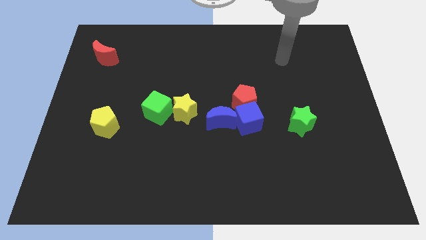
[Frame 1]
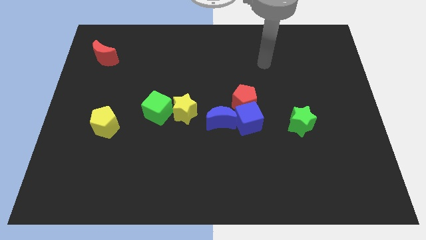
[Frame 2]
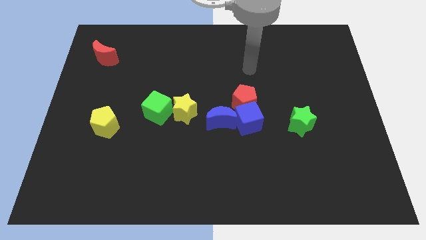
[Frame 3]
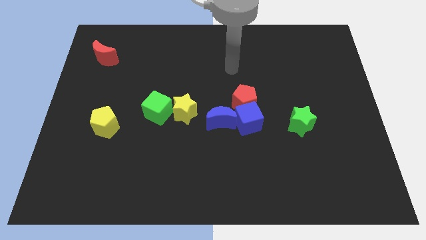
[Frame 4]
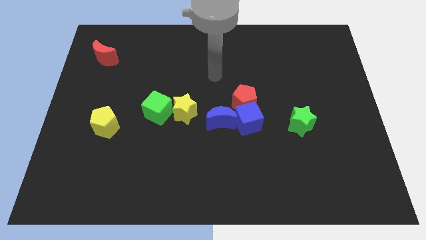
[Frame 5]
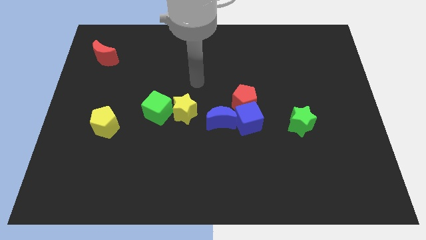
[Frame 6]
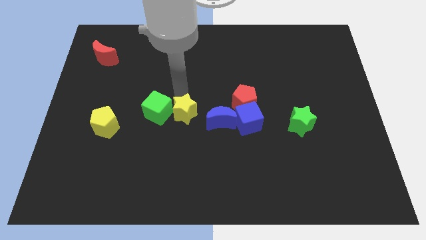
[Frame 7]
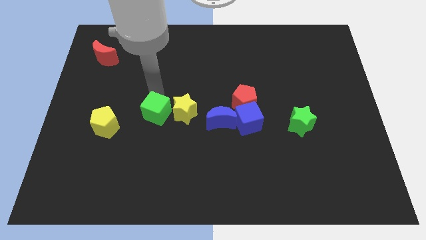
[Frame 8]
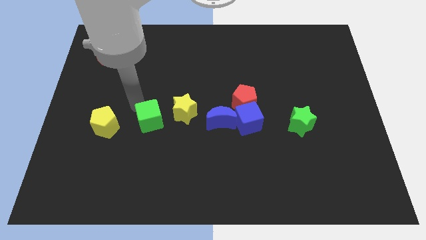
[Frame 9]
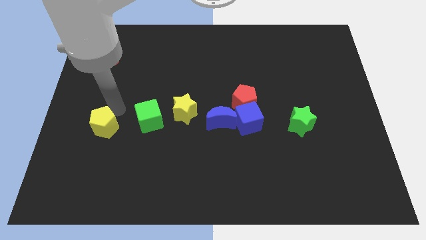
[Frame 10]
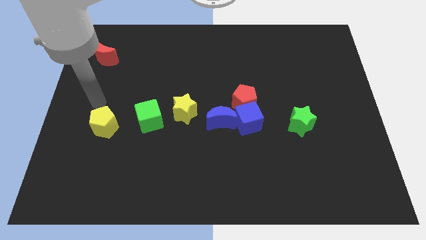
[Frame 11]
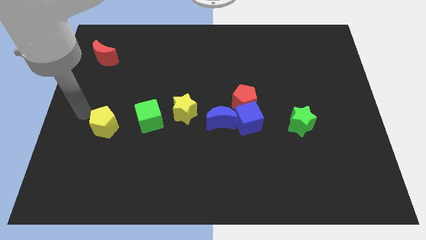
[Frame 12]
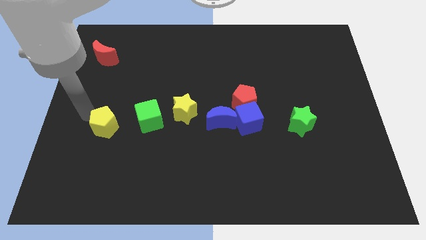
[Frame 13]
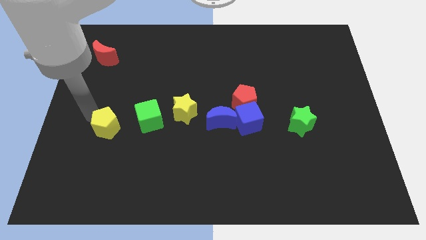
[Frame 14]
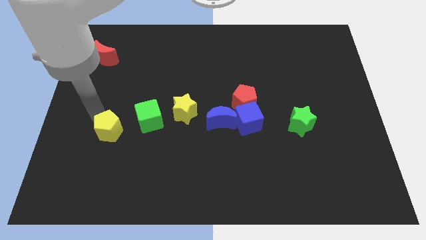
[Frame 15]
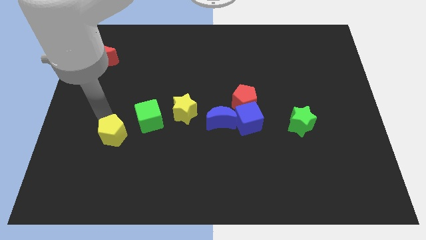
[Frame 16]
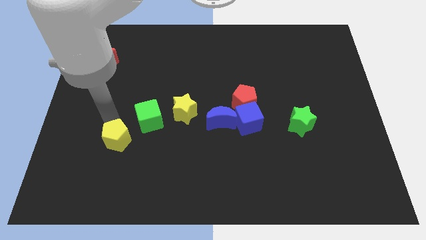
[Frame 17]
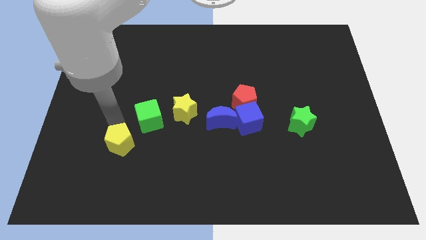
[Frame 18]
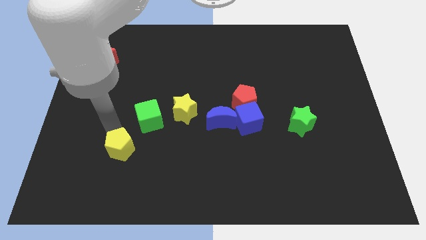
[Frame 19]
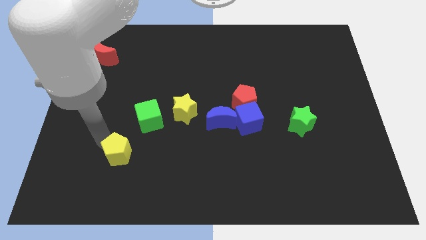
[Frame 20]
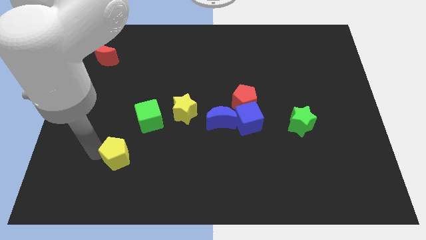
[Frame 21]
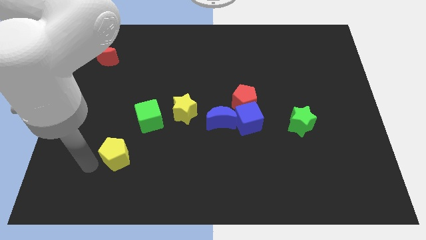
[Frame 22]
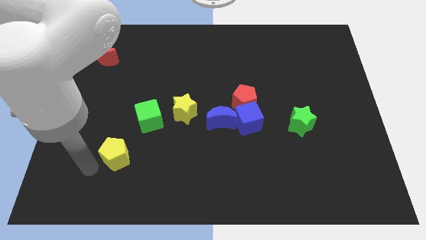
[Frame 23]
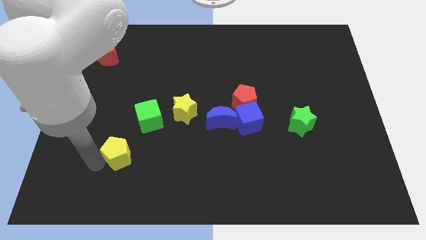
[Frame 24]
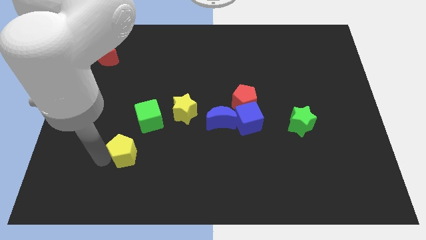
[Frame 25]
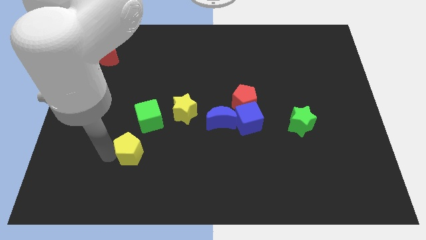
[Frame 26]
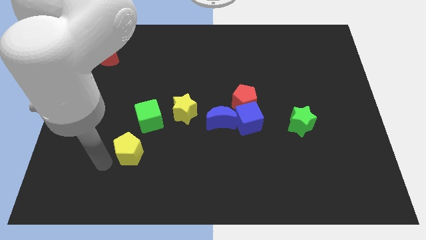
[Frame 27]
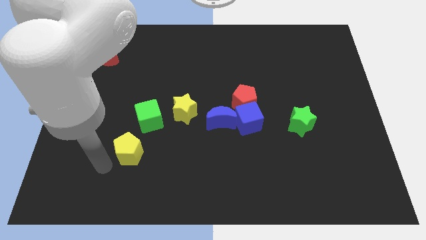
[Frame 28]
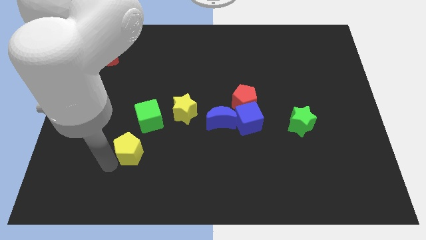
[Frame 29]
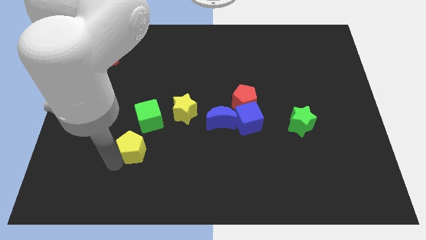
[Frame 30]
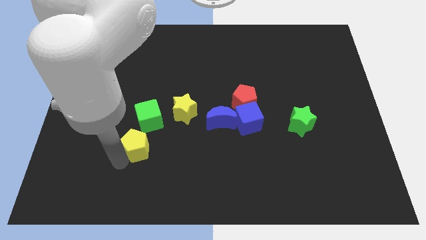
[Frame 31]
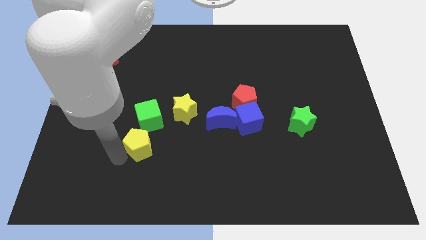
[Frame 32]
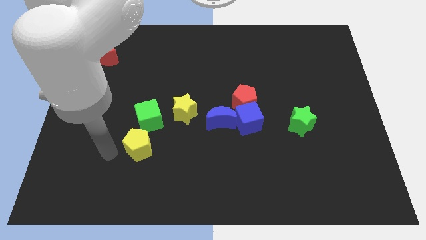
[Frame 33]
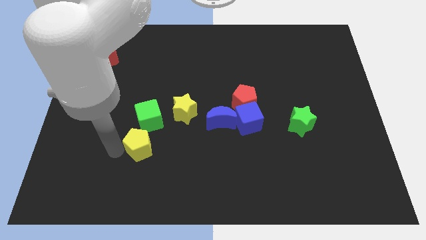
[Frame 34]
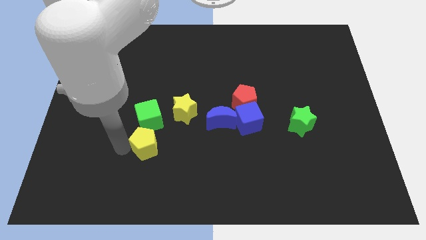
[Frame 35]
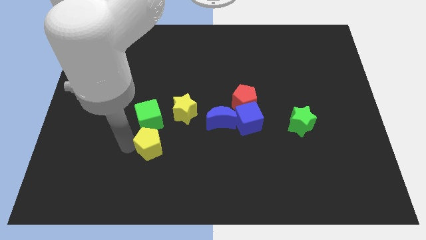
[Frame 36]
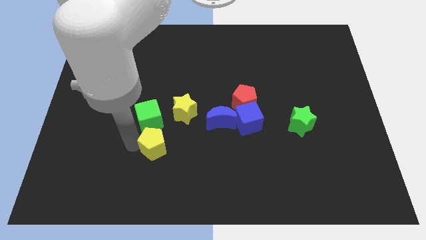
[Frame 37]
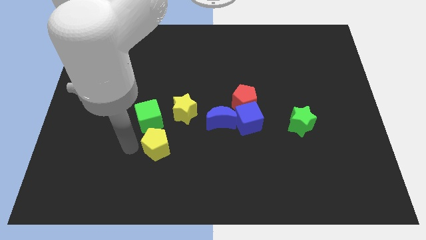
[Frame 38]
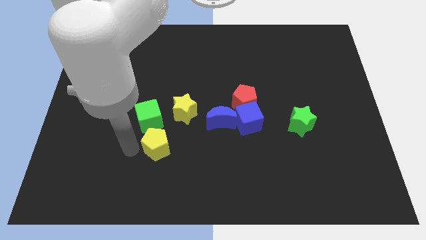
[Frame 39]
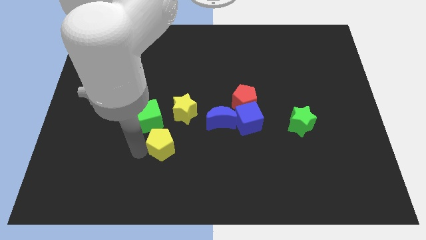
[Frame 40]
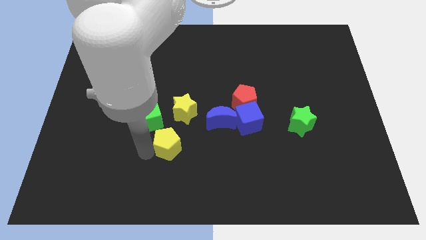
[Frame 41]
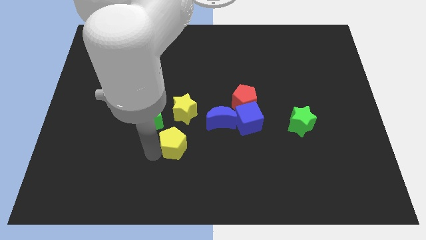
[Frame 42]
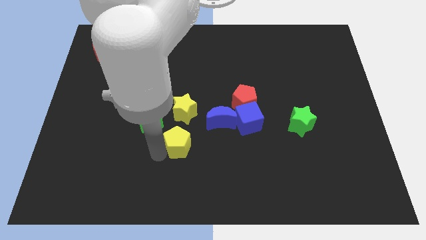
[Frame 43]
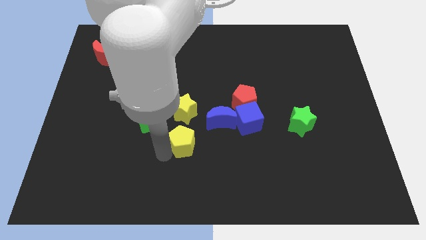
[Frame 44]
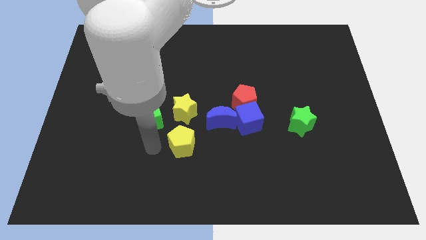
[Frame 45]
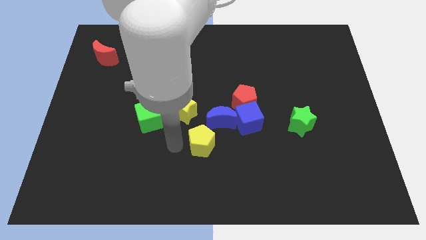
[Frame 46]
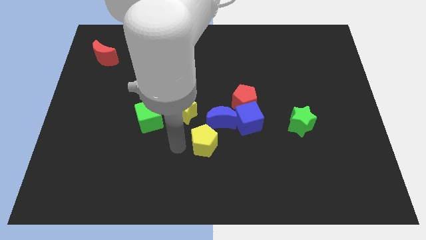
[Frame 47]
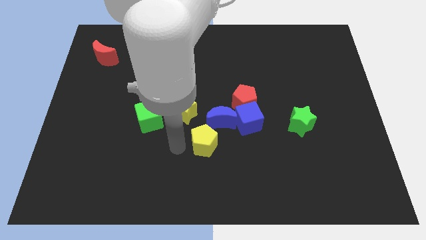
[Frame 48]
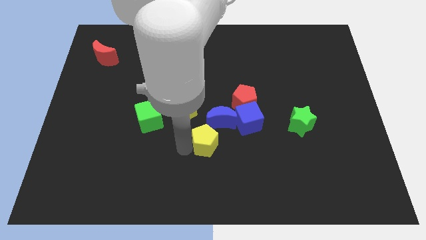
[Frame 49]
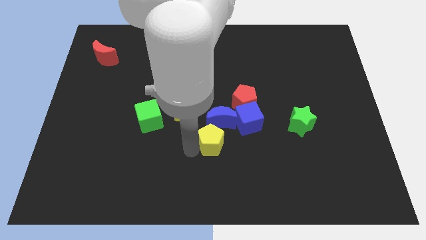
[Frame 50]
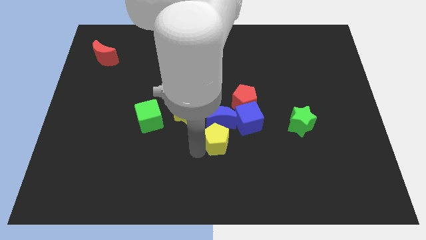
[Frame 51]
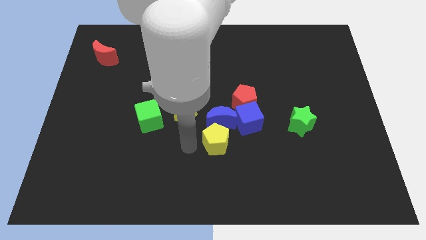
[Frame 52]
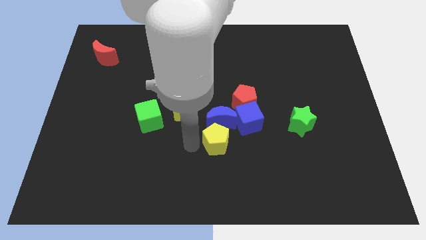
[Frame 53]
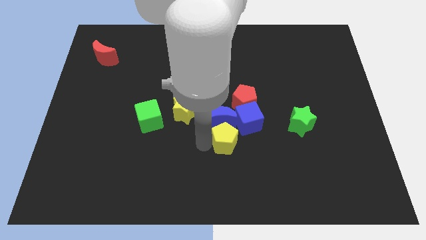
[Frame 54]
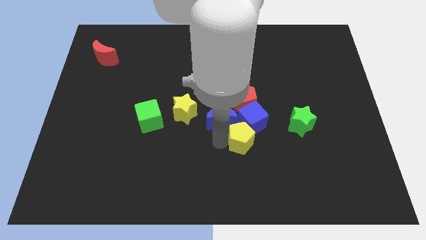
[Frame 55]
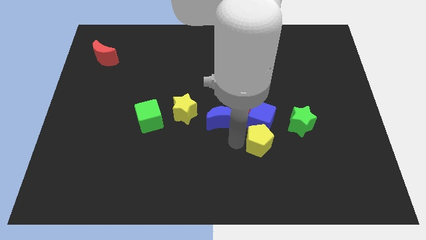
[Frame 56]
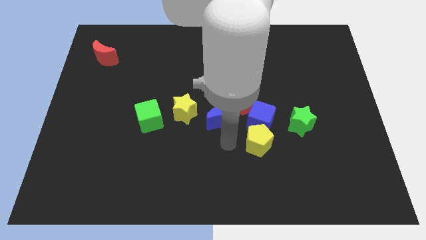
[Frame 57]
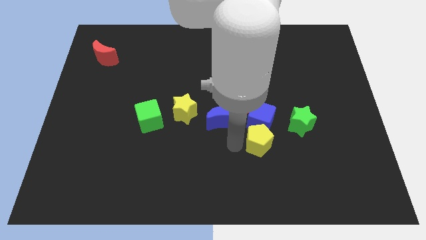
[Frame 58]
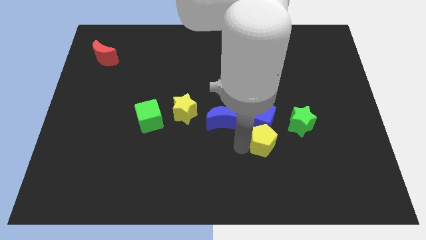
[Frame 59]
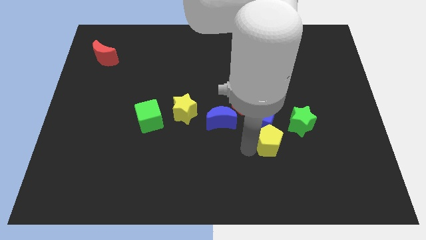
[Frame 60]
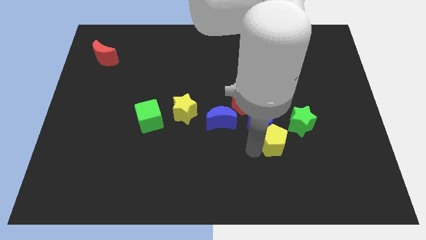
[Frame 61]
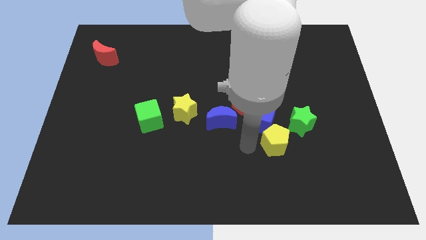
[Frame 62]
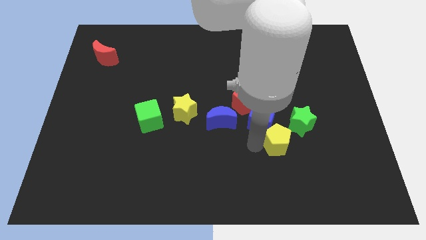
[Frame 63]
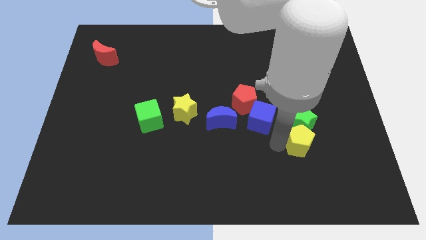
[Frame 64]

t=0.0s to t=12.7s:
slide the yellow pentagon to the bottom right side of the green star
